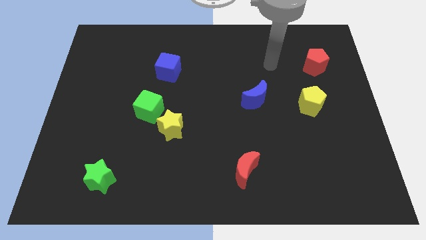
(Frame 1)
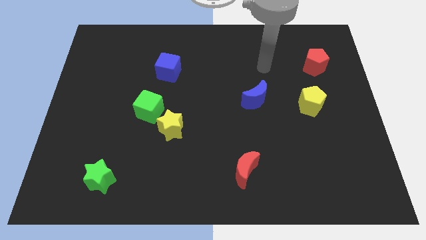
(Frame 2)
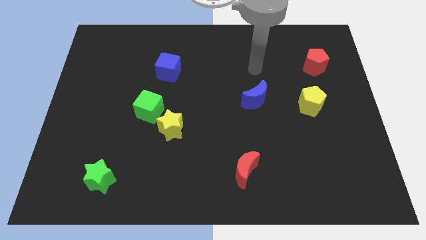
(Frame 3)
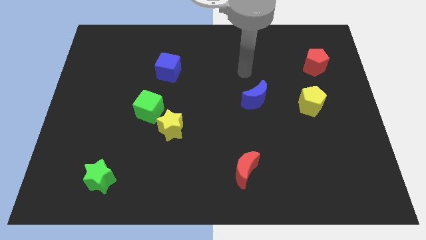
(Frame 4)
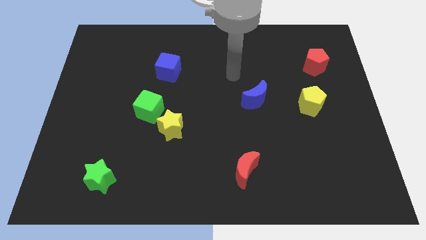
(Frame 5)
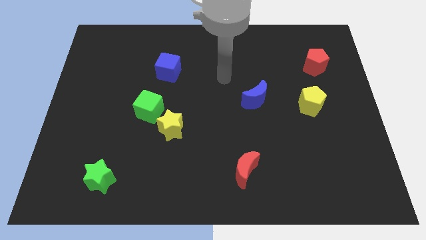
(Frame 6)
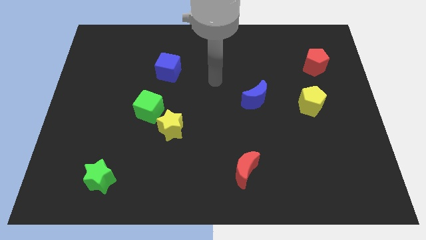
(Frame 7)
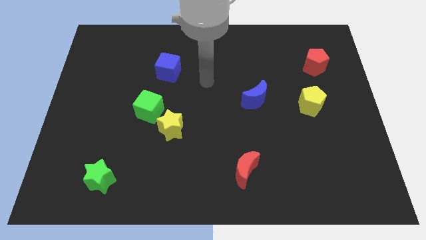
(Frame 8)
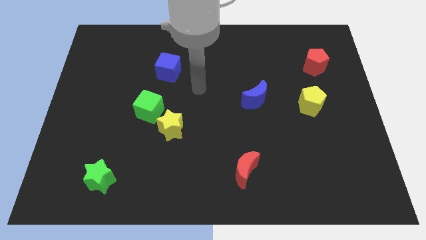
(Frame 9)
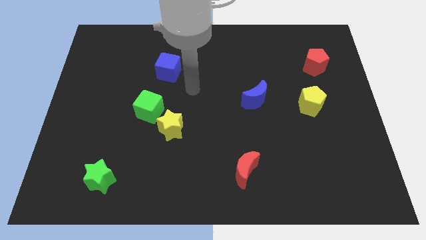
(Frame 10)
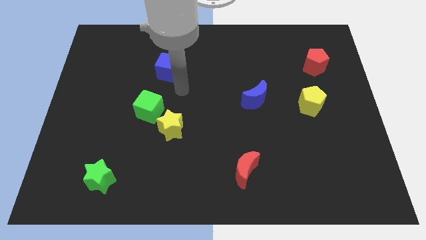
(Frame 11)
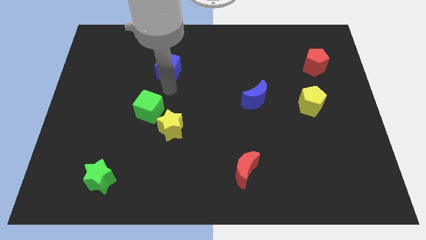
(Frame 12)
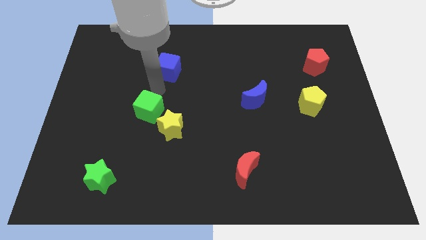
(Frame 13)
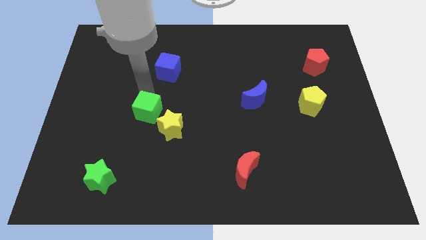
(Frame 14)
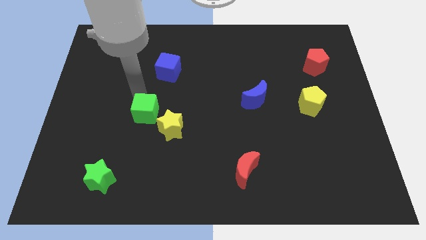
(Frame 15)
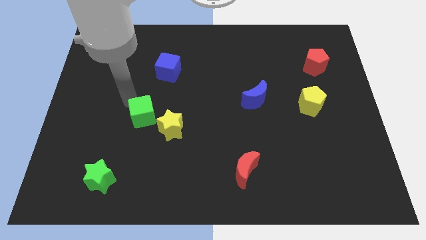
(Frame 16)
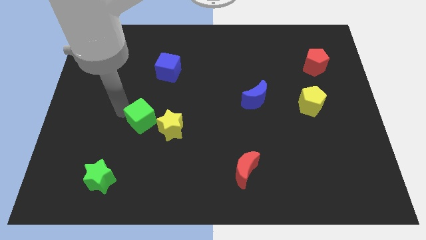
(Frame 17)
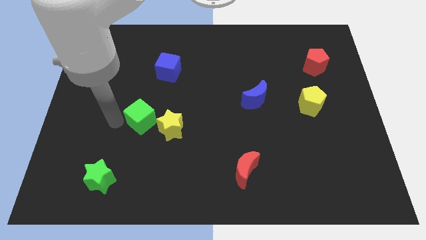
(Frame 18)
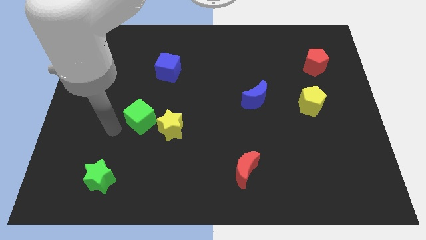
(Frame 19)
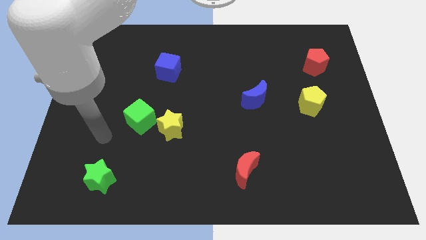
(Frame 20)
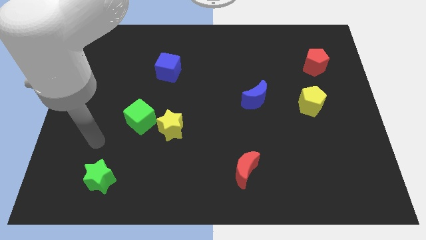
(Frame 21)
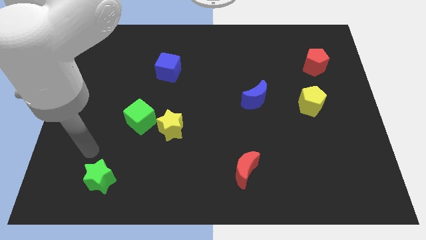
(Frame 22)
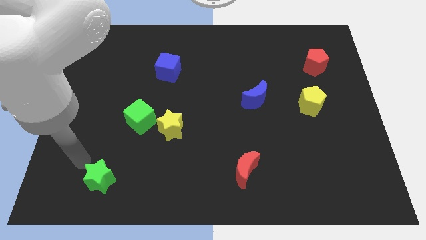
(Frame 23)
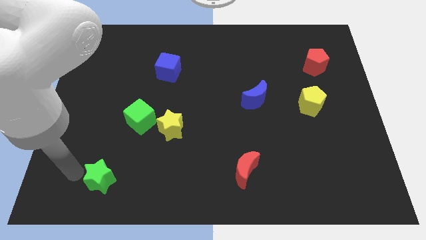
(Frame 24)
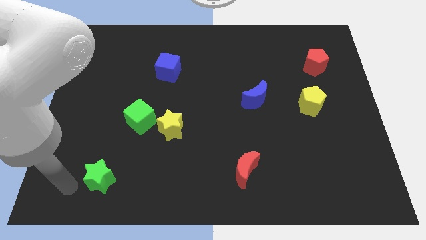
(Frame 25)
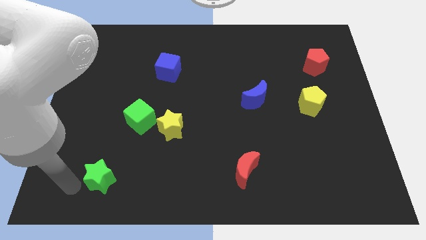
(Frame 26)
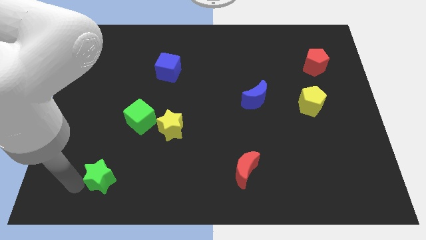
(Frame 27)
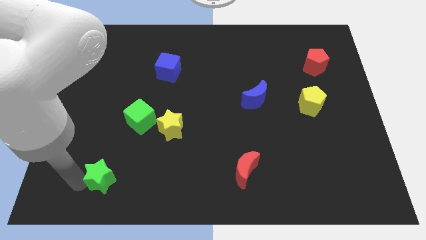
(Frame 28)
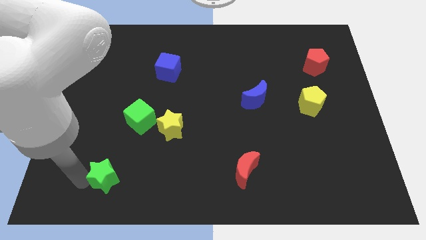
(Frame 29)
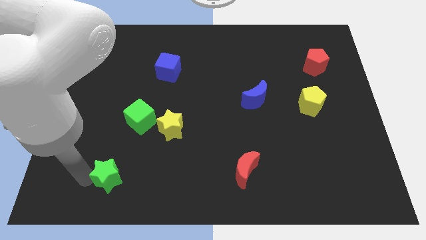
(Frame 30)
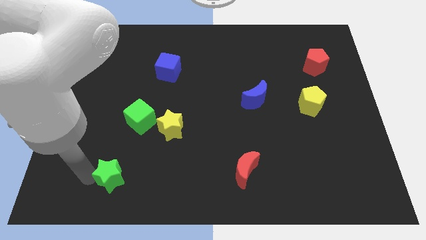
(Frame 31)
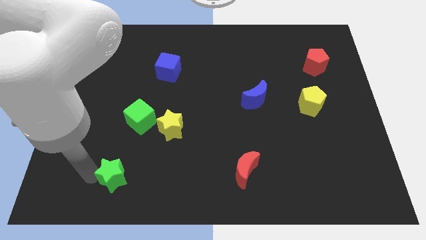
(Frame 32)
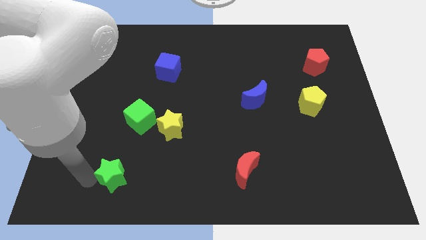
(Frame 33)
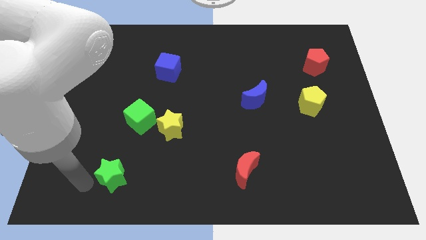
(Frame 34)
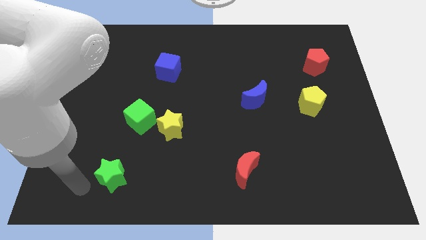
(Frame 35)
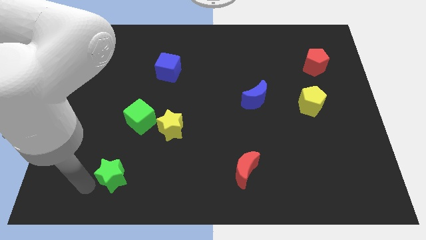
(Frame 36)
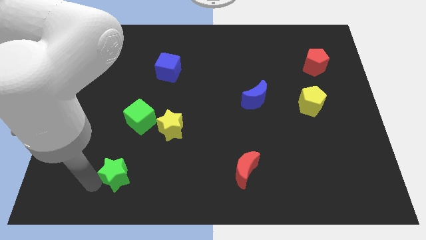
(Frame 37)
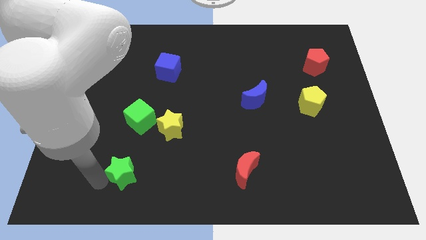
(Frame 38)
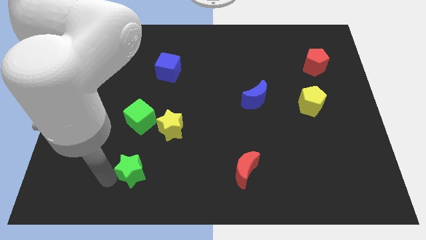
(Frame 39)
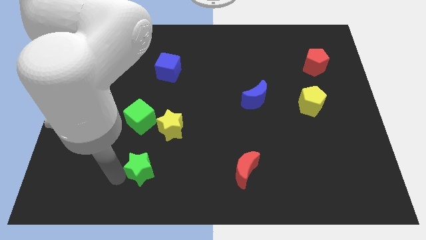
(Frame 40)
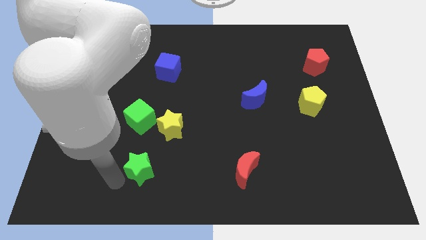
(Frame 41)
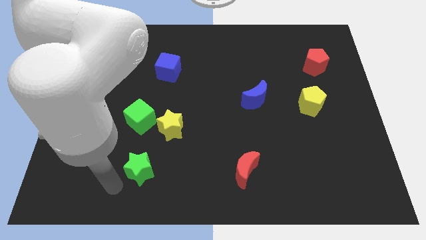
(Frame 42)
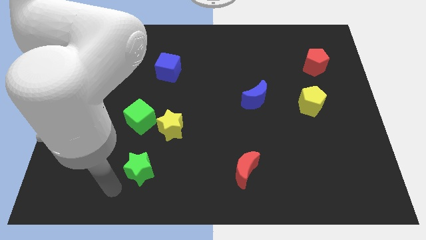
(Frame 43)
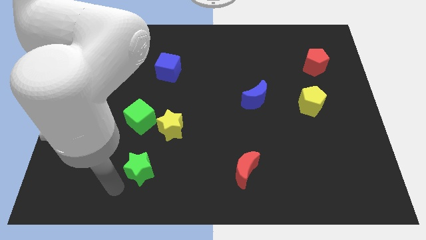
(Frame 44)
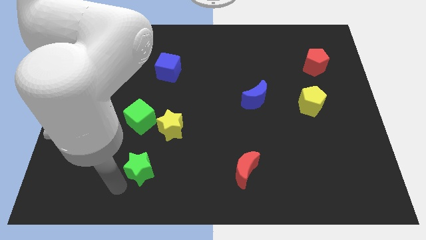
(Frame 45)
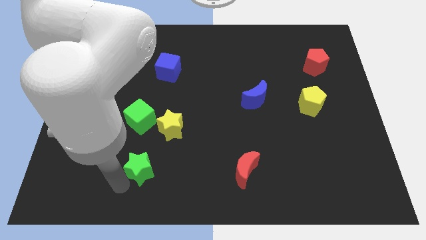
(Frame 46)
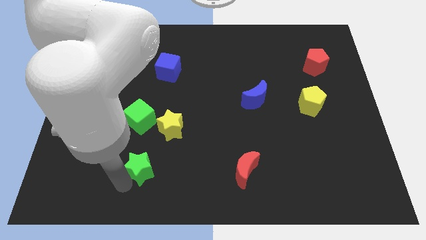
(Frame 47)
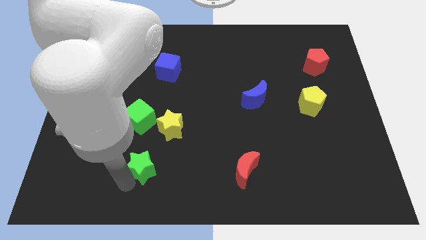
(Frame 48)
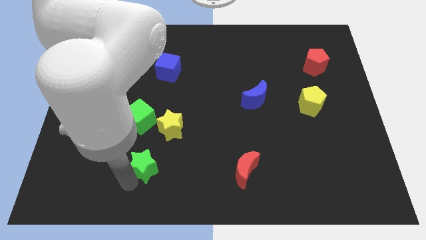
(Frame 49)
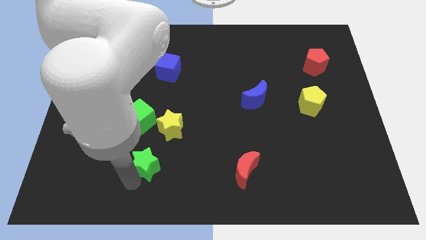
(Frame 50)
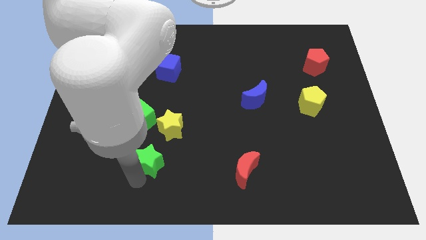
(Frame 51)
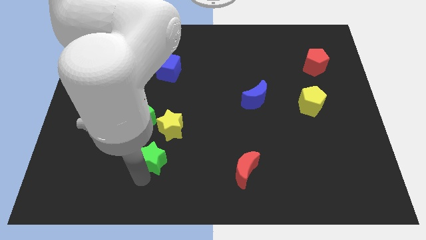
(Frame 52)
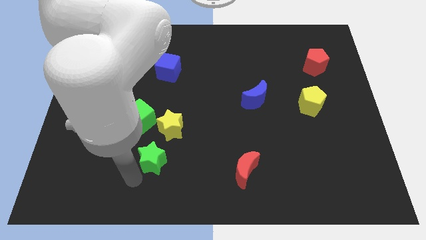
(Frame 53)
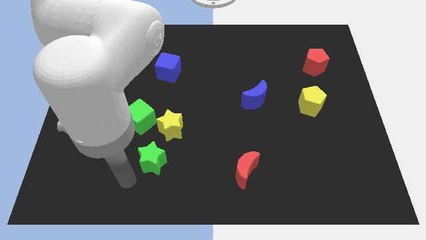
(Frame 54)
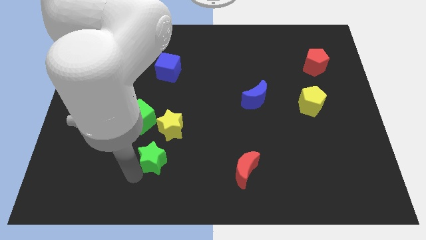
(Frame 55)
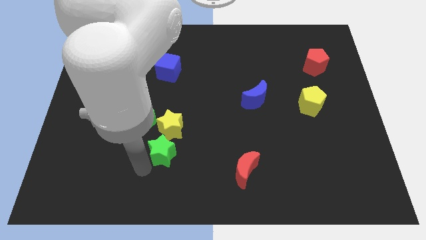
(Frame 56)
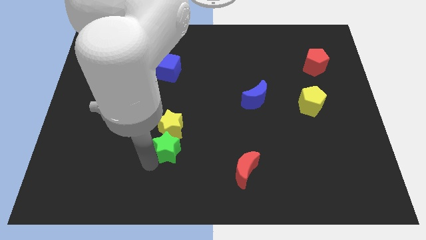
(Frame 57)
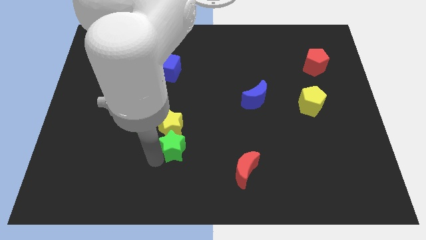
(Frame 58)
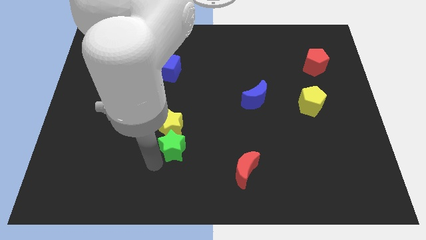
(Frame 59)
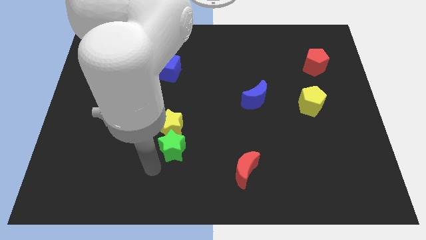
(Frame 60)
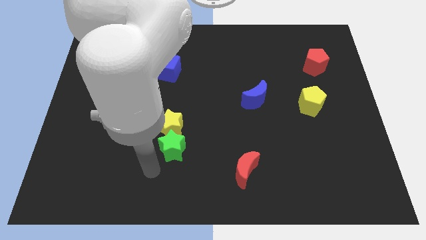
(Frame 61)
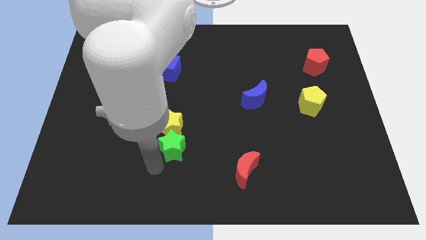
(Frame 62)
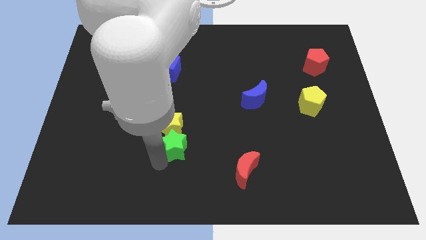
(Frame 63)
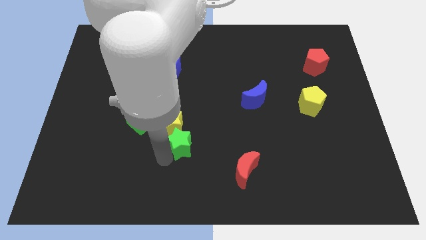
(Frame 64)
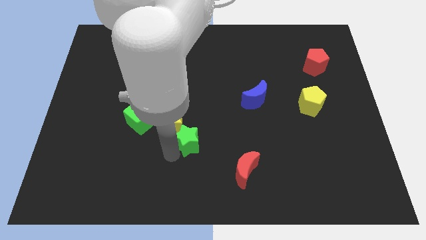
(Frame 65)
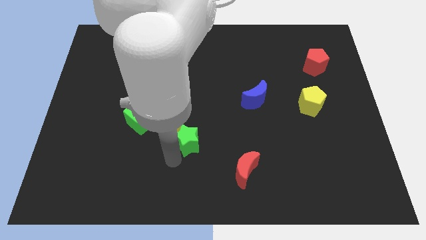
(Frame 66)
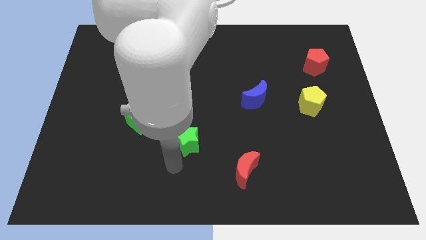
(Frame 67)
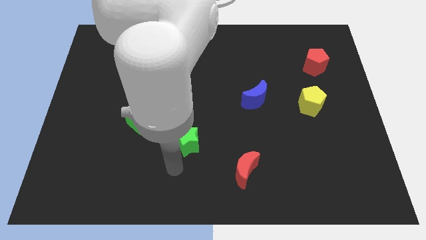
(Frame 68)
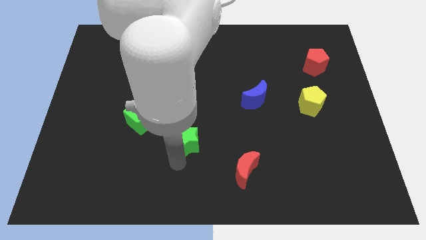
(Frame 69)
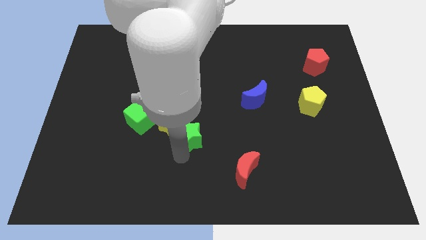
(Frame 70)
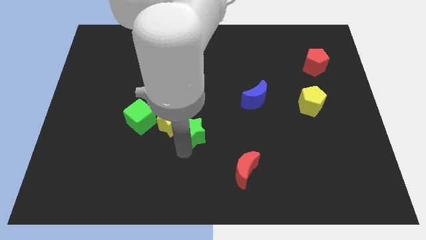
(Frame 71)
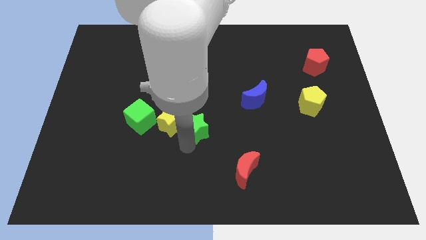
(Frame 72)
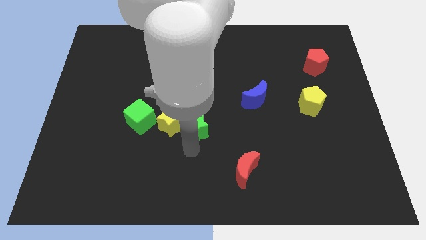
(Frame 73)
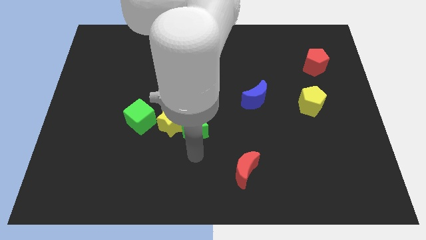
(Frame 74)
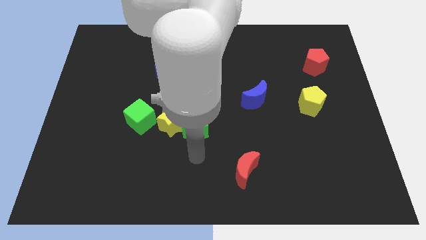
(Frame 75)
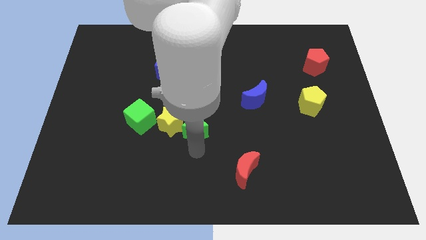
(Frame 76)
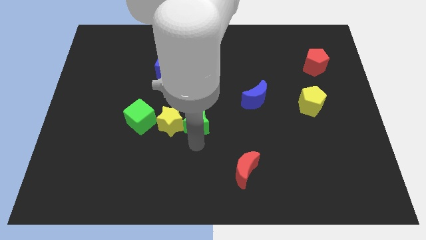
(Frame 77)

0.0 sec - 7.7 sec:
slide the green star to the top right side of the yellow star
